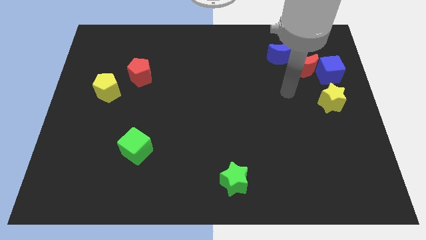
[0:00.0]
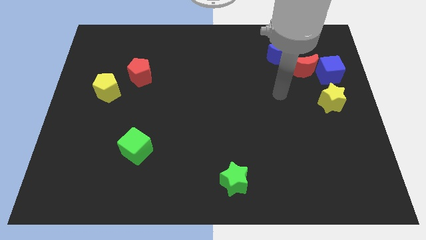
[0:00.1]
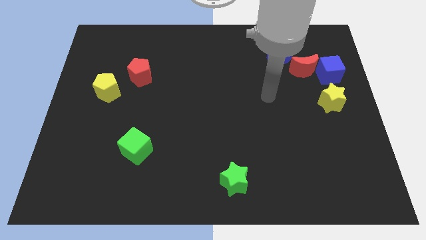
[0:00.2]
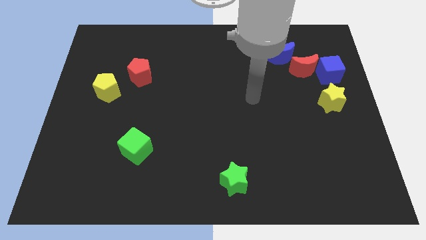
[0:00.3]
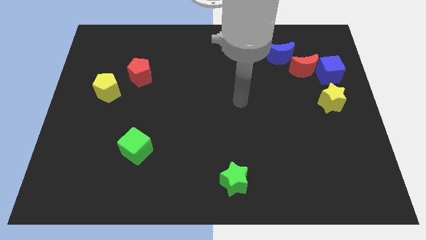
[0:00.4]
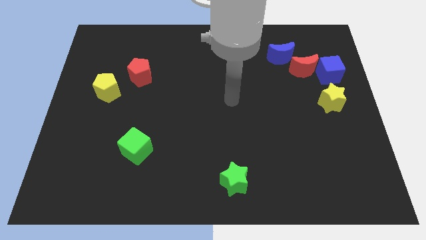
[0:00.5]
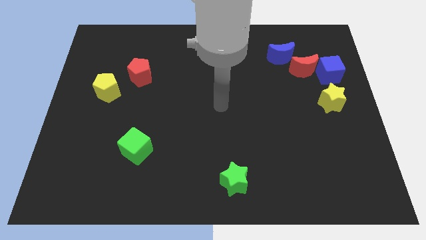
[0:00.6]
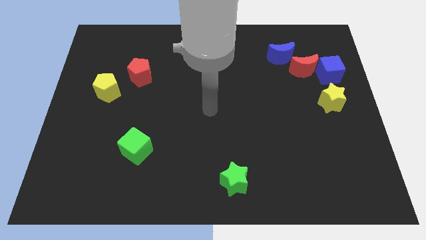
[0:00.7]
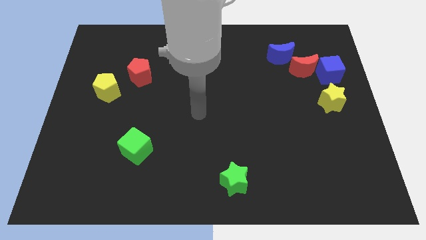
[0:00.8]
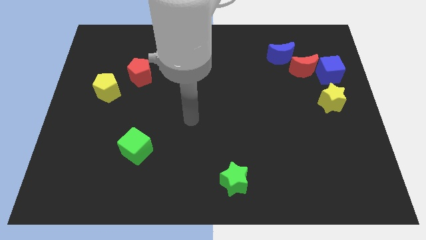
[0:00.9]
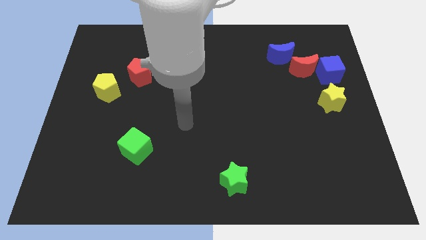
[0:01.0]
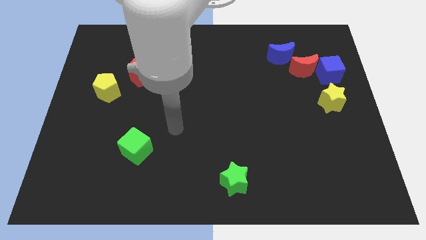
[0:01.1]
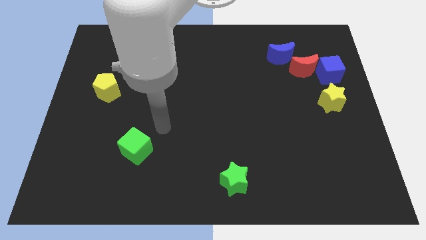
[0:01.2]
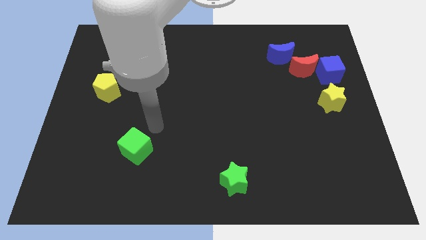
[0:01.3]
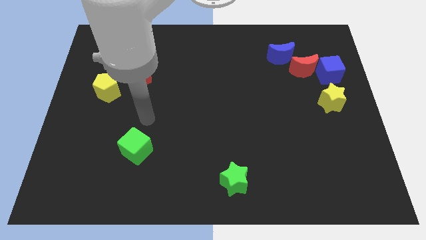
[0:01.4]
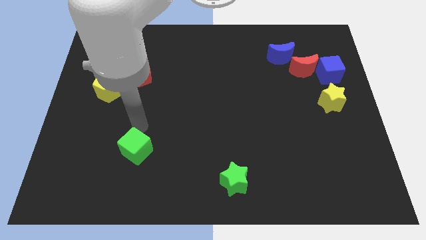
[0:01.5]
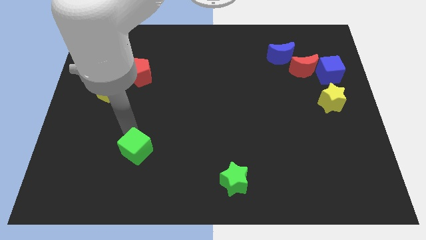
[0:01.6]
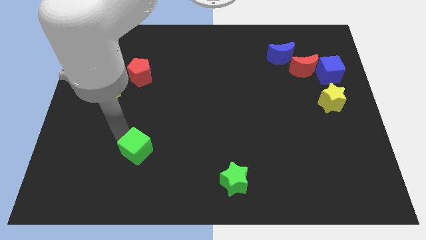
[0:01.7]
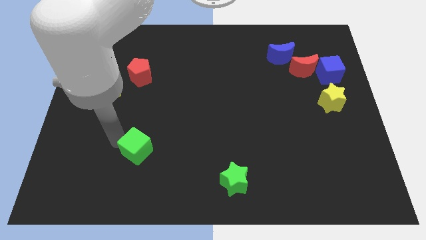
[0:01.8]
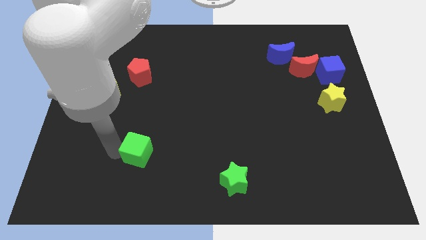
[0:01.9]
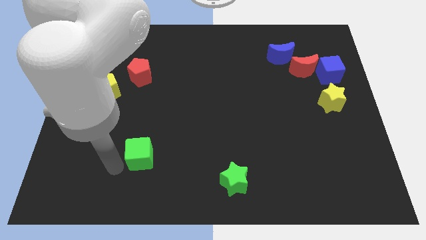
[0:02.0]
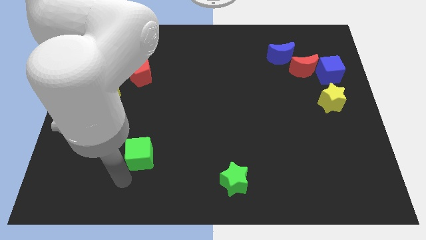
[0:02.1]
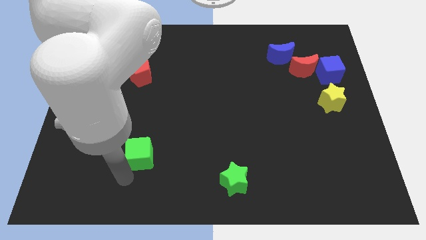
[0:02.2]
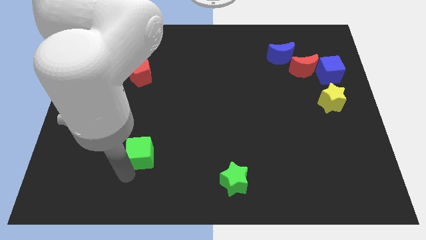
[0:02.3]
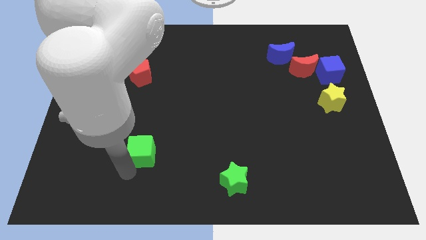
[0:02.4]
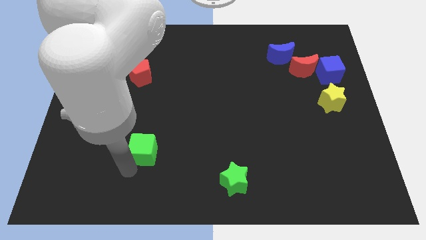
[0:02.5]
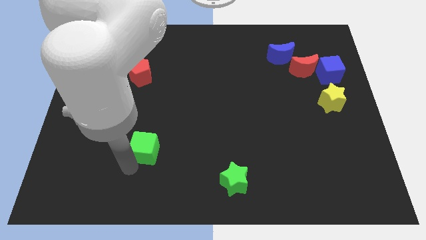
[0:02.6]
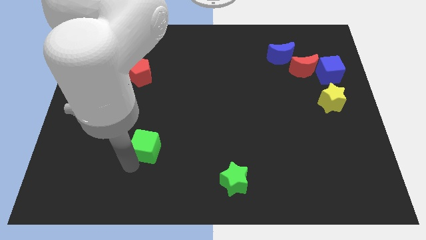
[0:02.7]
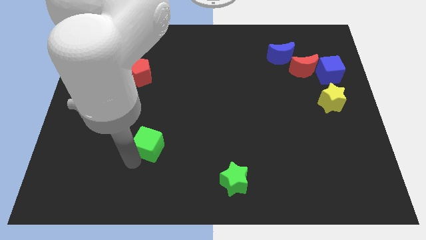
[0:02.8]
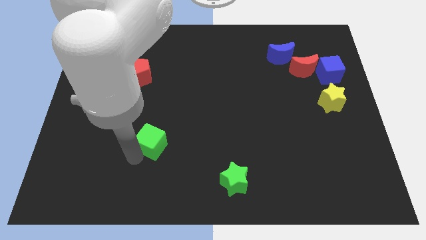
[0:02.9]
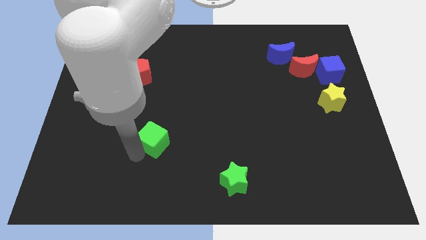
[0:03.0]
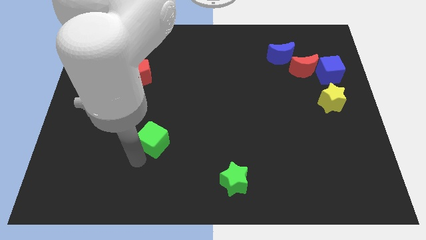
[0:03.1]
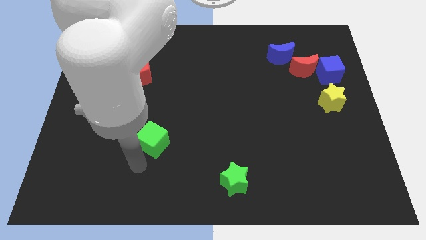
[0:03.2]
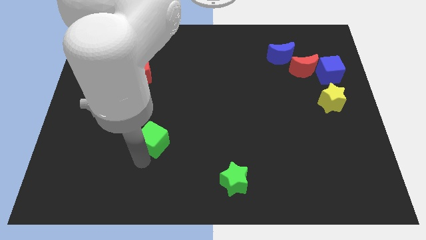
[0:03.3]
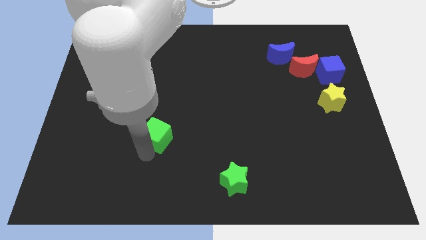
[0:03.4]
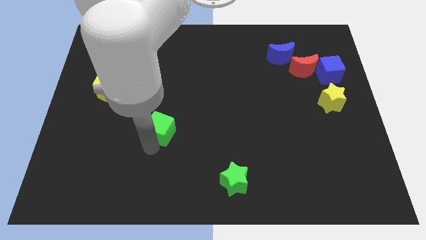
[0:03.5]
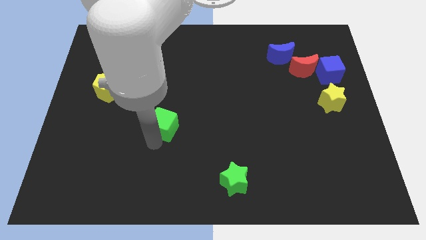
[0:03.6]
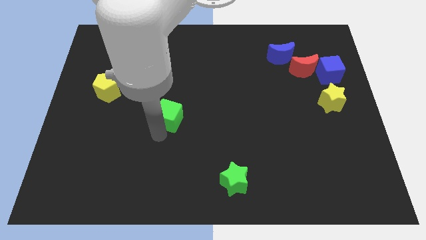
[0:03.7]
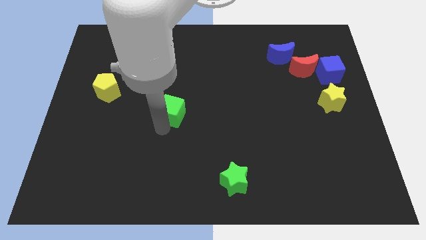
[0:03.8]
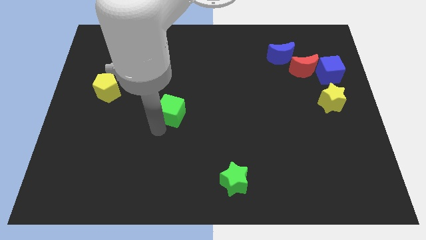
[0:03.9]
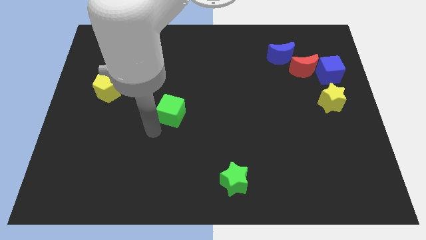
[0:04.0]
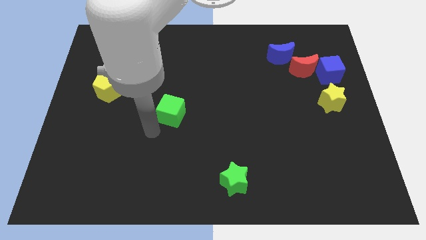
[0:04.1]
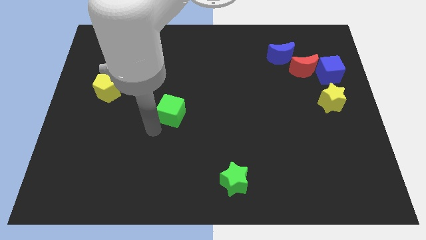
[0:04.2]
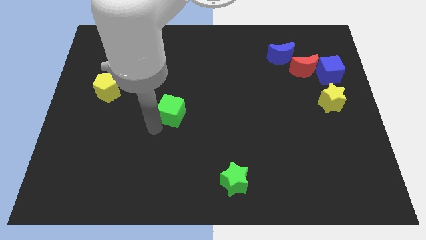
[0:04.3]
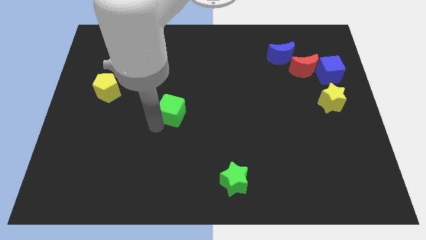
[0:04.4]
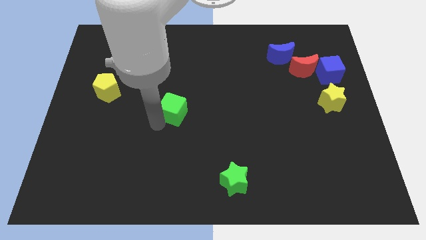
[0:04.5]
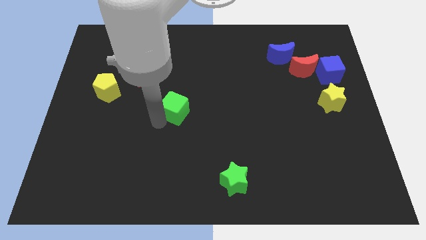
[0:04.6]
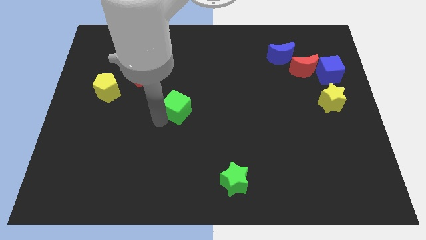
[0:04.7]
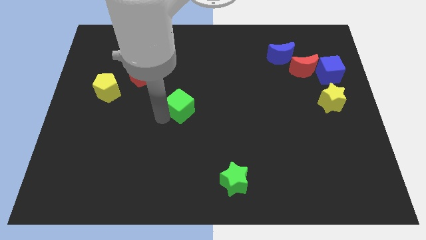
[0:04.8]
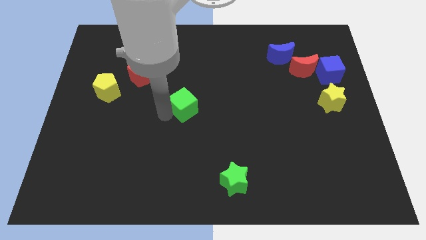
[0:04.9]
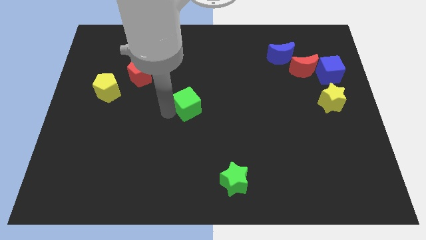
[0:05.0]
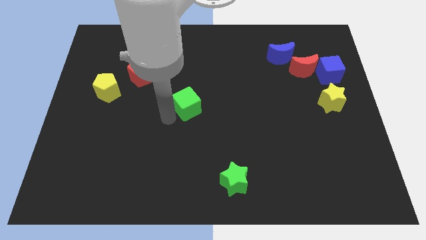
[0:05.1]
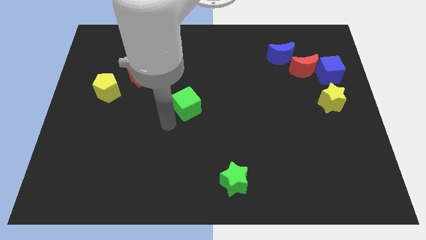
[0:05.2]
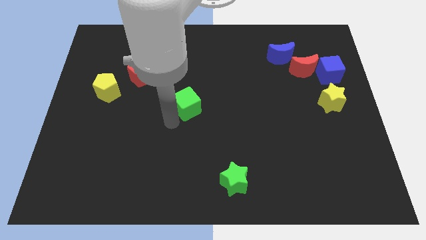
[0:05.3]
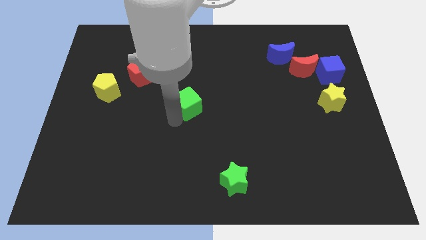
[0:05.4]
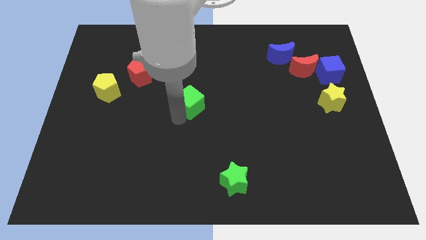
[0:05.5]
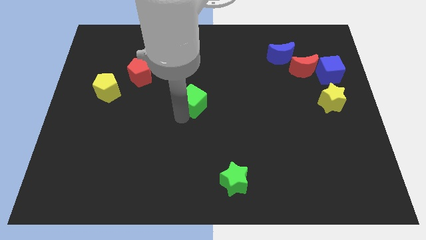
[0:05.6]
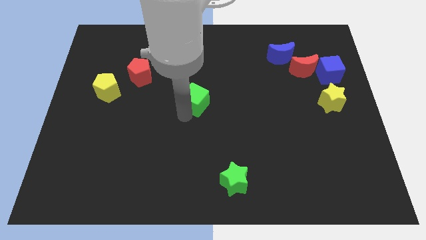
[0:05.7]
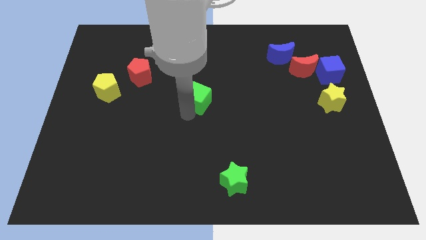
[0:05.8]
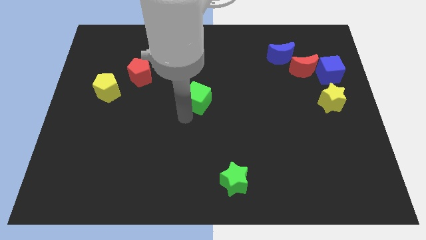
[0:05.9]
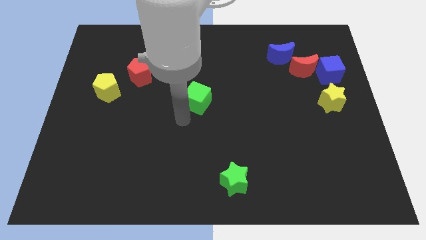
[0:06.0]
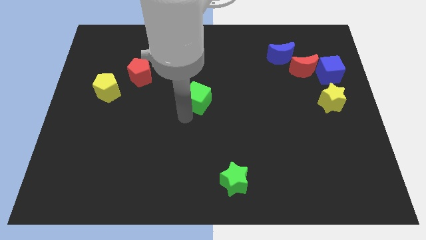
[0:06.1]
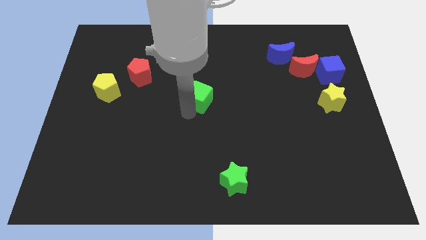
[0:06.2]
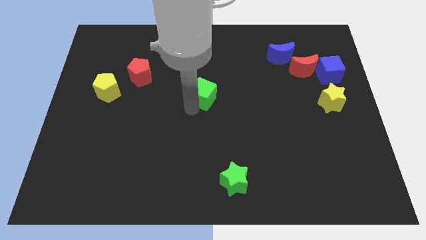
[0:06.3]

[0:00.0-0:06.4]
move the green cube up and right

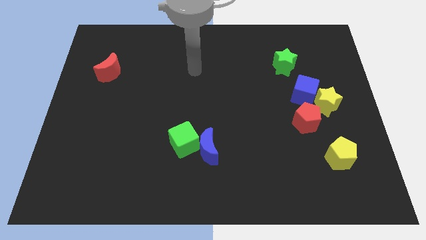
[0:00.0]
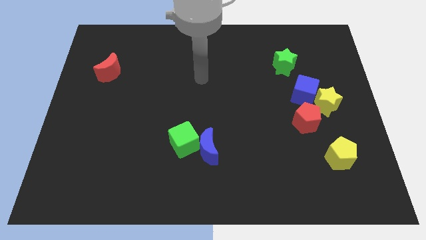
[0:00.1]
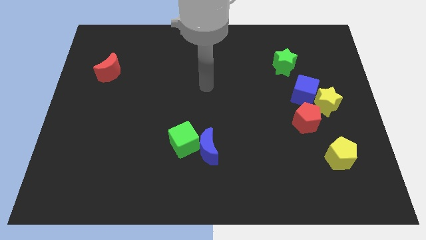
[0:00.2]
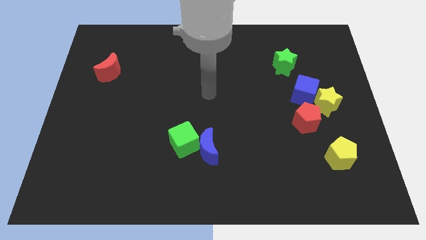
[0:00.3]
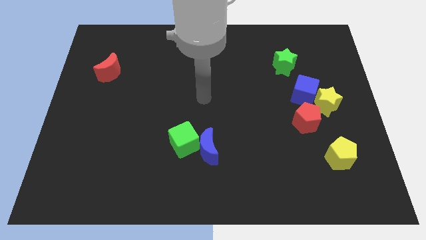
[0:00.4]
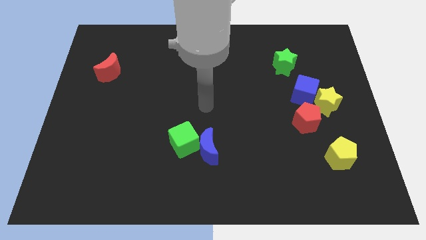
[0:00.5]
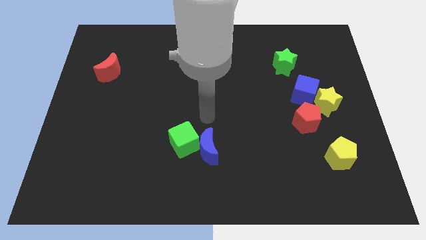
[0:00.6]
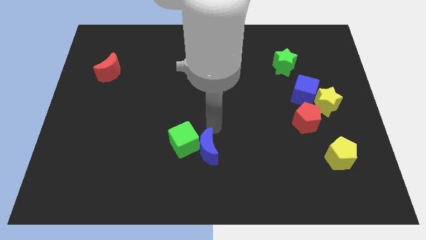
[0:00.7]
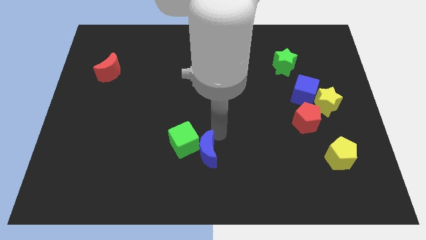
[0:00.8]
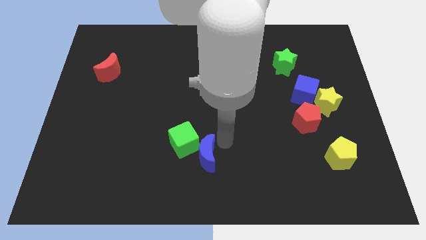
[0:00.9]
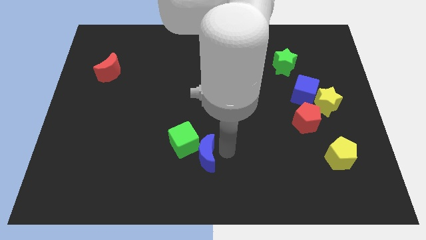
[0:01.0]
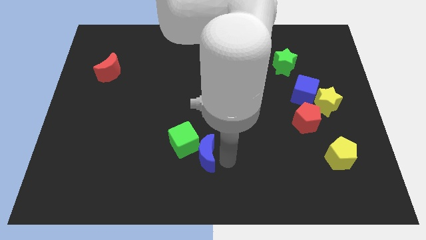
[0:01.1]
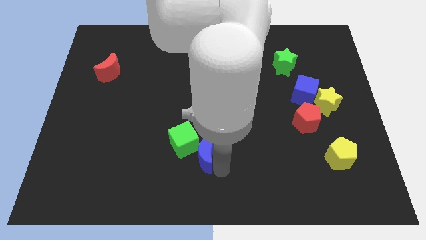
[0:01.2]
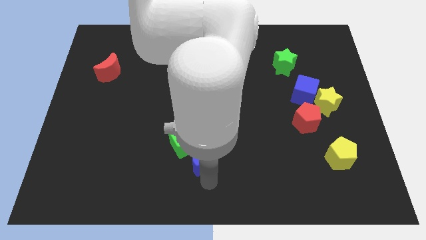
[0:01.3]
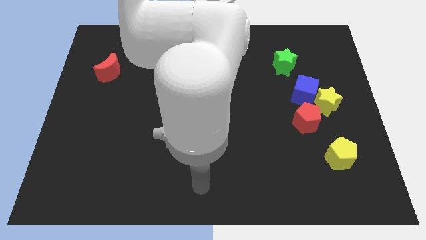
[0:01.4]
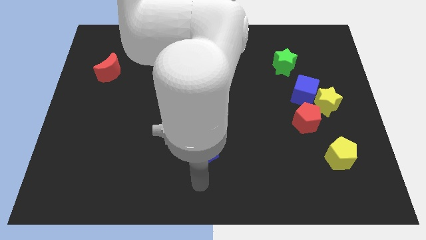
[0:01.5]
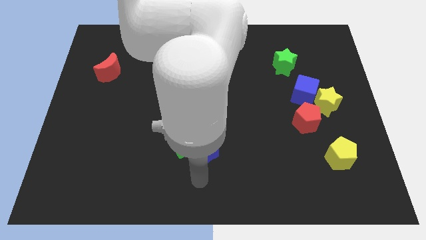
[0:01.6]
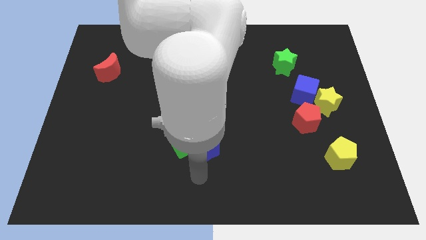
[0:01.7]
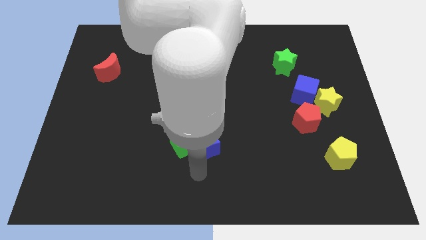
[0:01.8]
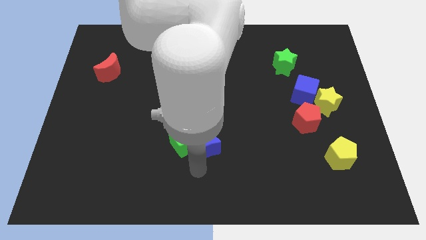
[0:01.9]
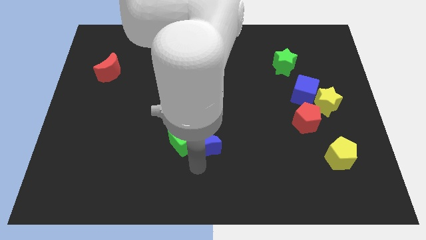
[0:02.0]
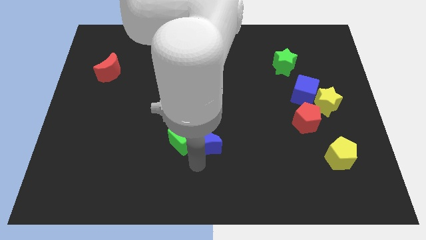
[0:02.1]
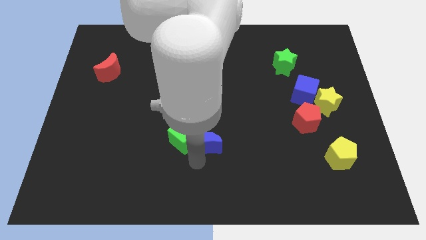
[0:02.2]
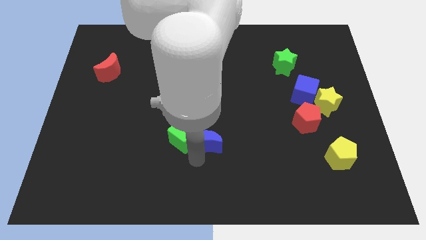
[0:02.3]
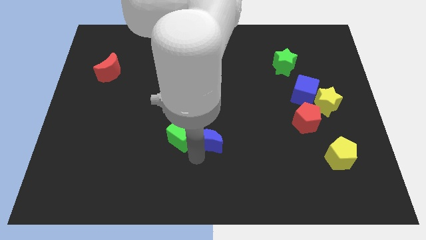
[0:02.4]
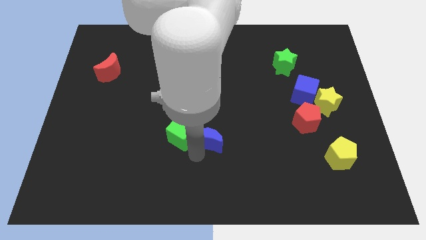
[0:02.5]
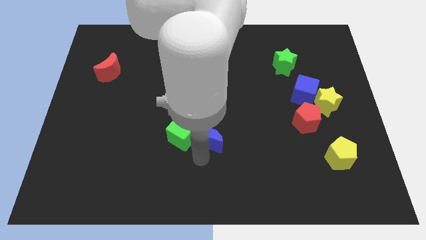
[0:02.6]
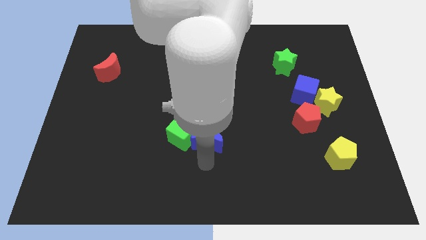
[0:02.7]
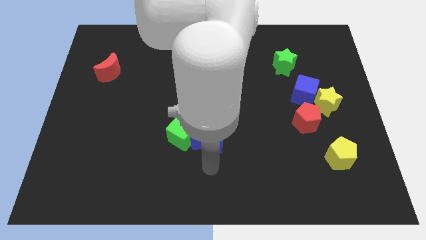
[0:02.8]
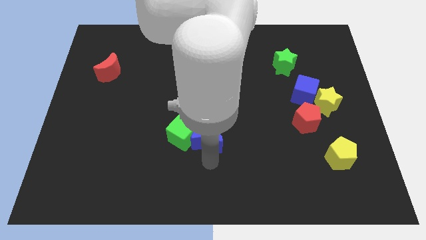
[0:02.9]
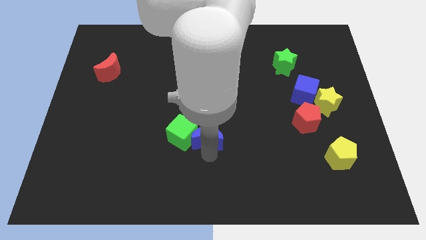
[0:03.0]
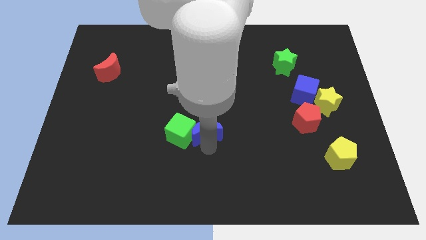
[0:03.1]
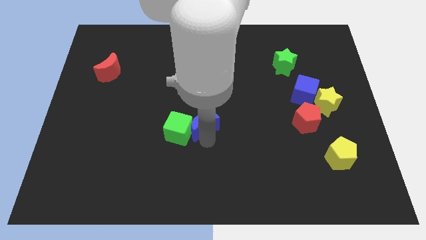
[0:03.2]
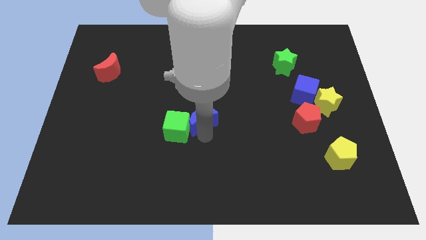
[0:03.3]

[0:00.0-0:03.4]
push the blue moon a bit upwards
